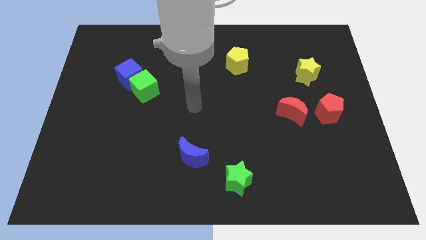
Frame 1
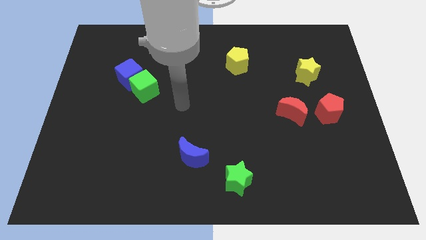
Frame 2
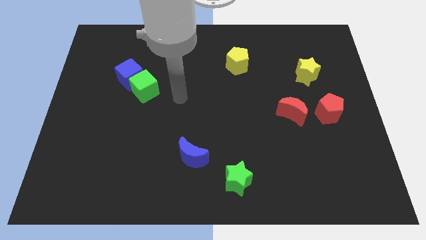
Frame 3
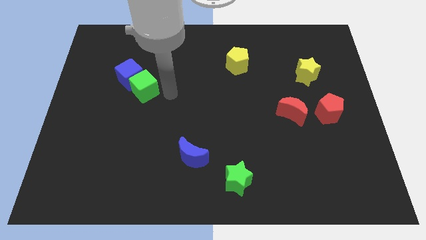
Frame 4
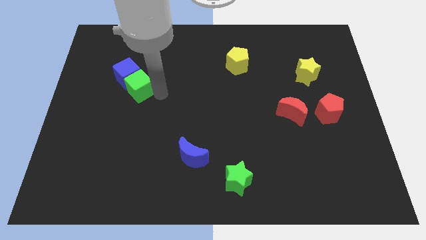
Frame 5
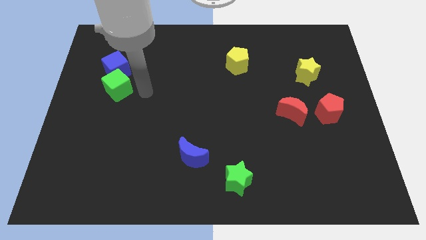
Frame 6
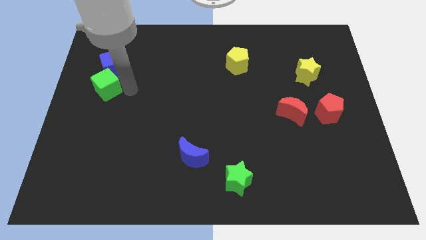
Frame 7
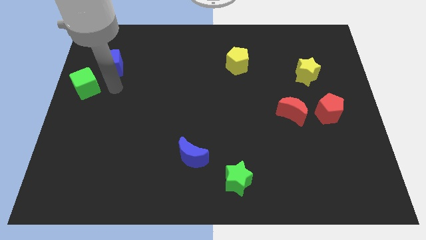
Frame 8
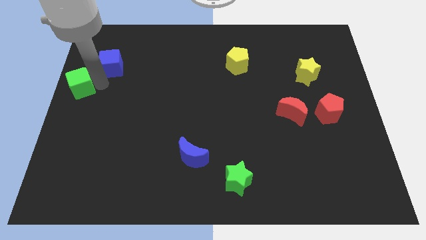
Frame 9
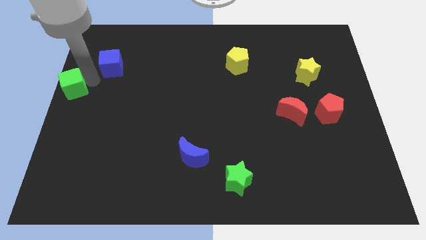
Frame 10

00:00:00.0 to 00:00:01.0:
move the blue cube away from the green cube

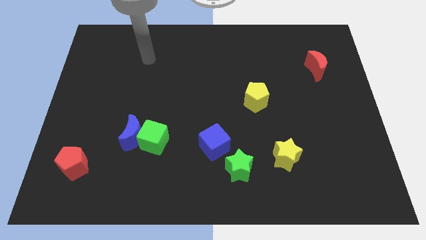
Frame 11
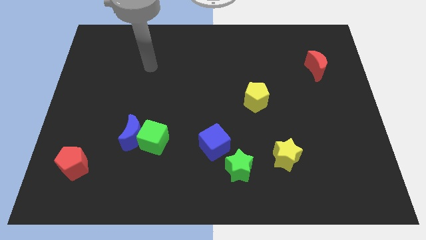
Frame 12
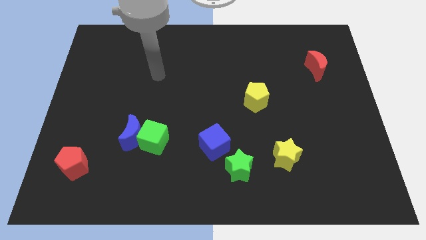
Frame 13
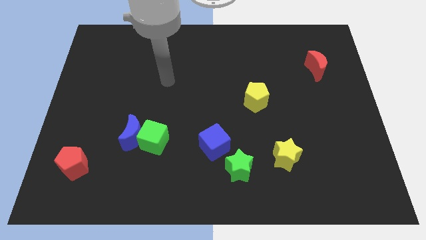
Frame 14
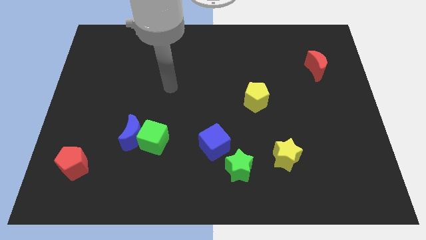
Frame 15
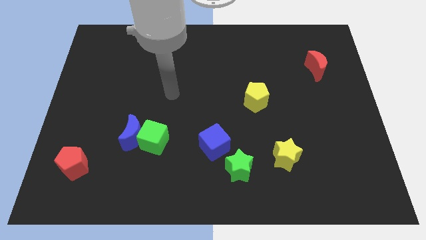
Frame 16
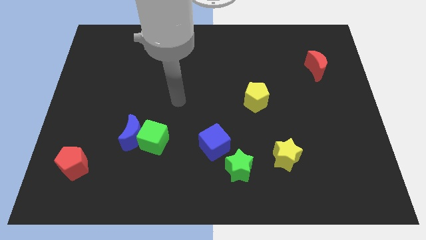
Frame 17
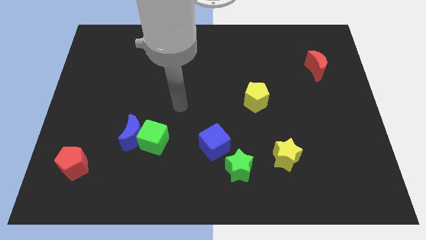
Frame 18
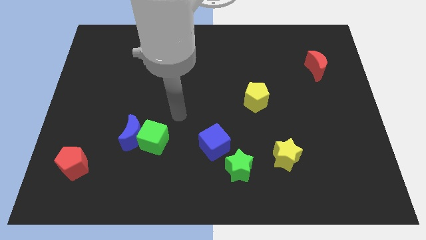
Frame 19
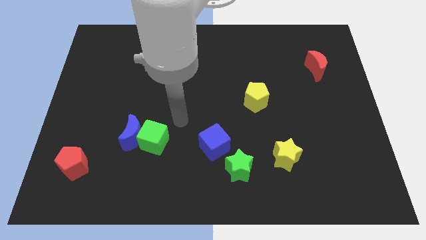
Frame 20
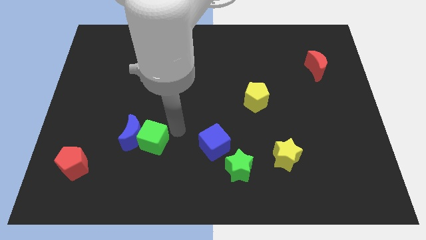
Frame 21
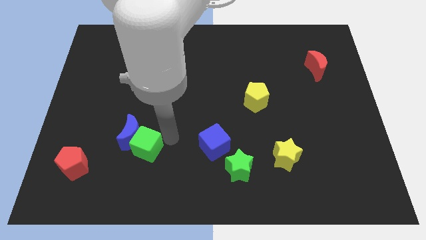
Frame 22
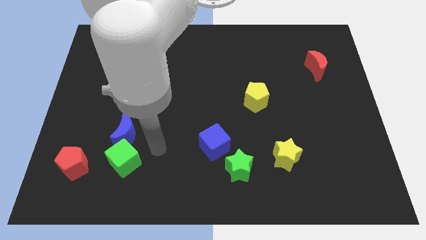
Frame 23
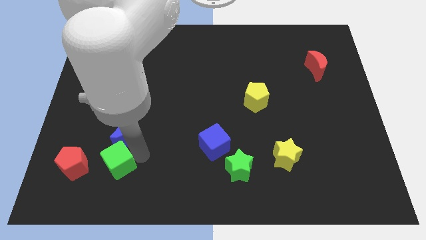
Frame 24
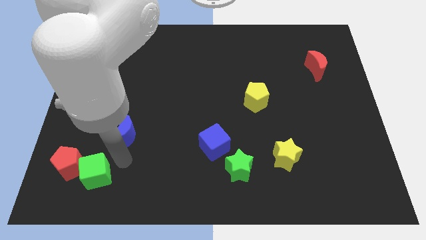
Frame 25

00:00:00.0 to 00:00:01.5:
move the blue moon away from the green cube

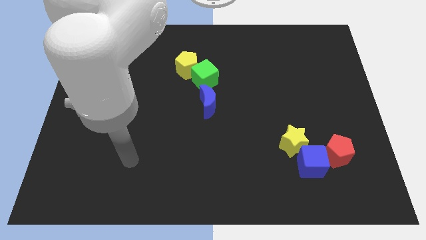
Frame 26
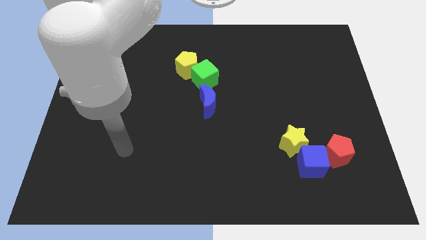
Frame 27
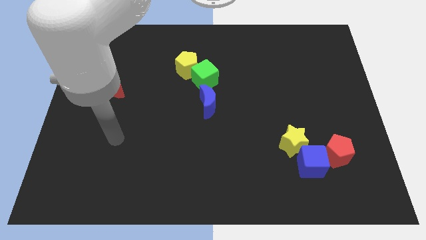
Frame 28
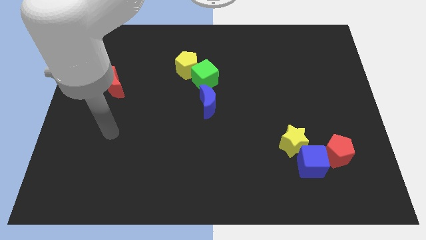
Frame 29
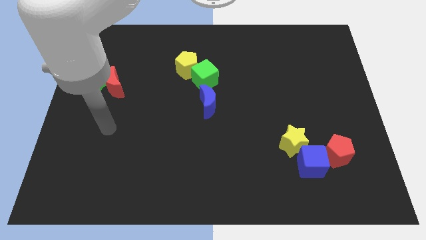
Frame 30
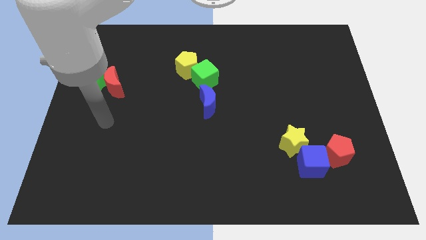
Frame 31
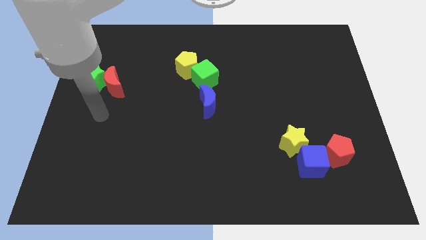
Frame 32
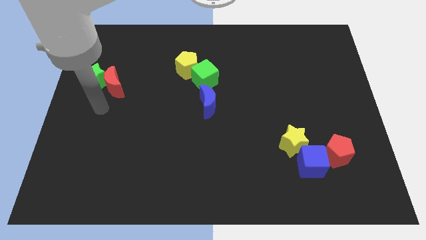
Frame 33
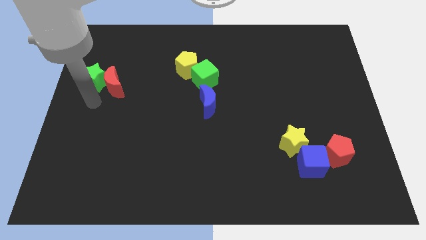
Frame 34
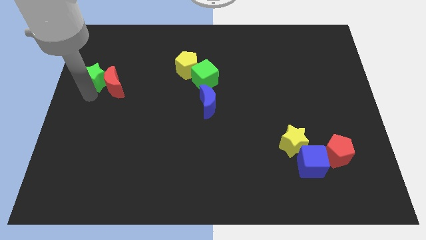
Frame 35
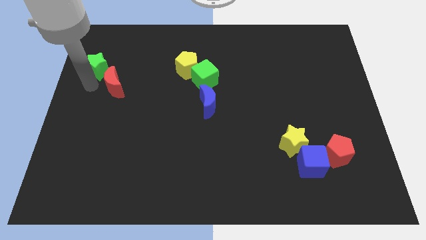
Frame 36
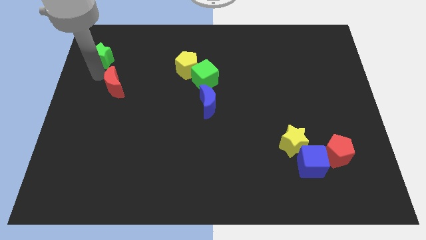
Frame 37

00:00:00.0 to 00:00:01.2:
move the red moon away from the green star

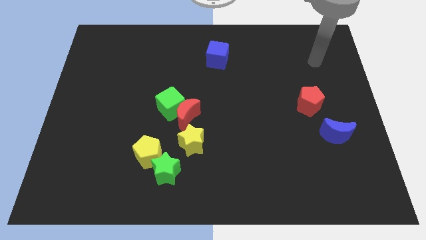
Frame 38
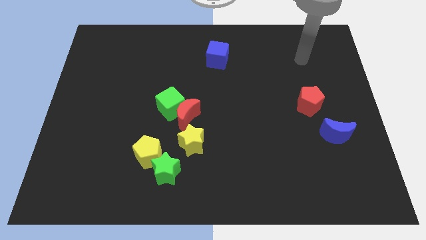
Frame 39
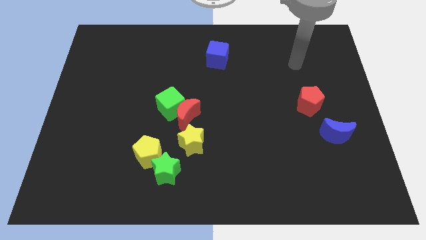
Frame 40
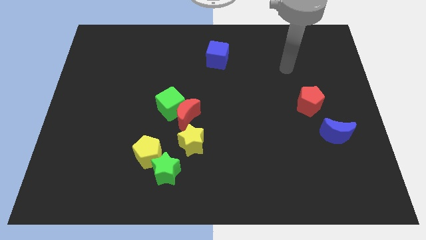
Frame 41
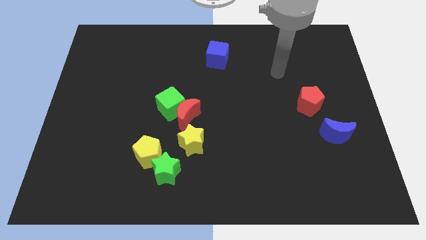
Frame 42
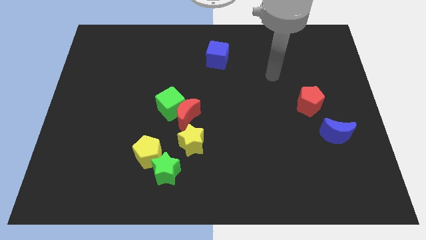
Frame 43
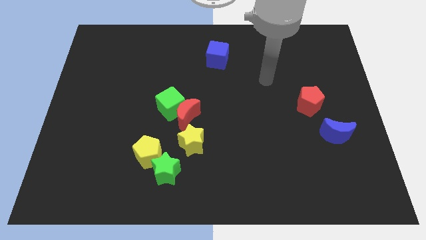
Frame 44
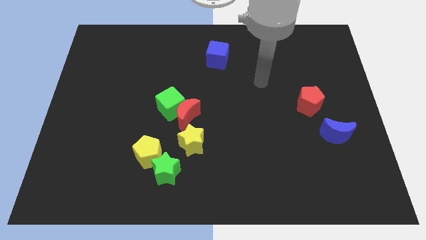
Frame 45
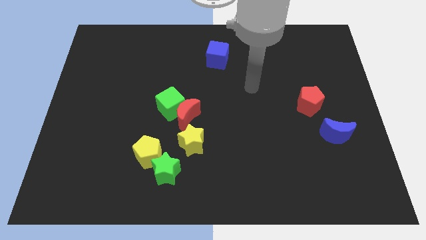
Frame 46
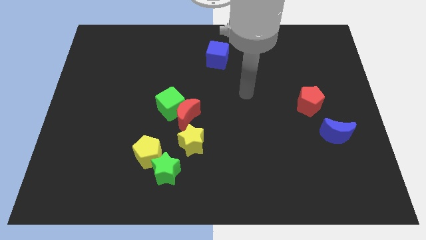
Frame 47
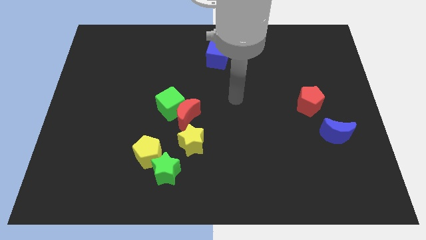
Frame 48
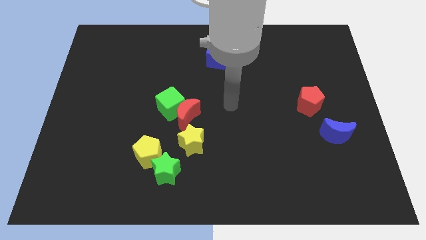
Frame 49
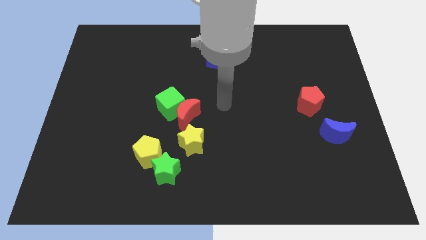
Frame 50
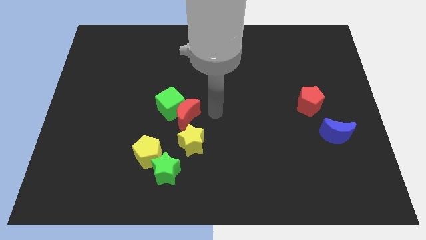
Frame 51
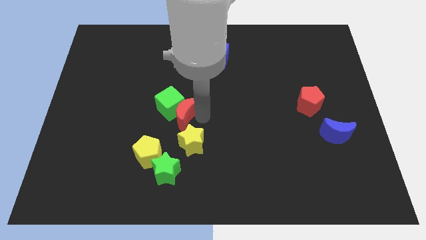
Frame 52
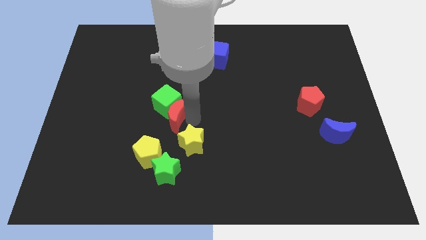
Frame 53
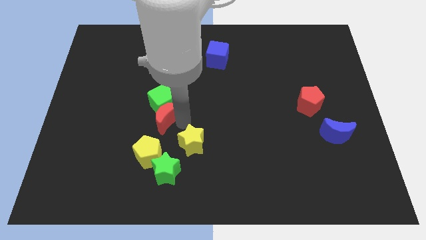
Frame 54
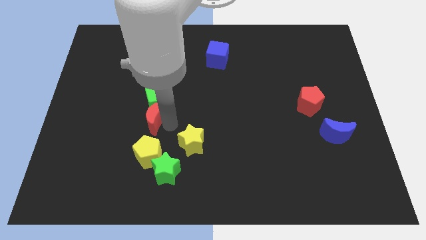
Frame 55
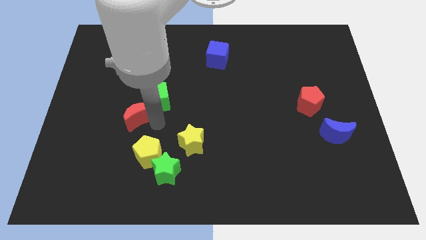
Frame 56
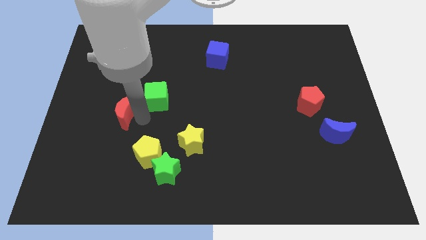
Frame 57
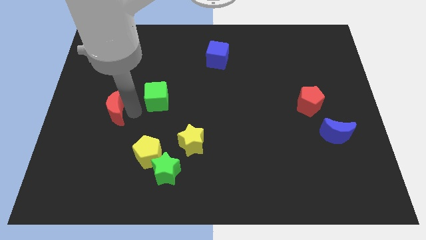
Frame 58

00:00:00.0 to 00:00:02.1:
move the green cube away from the red moon

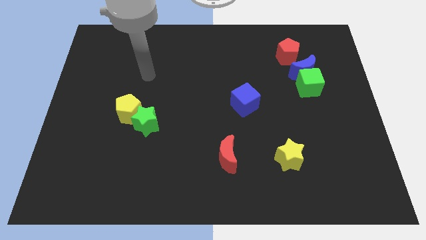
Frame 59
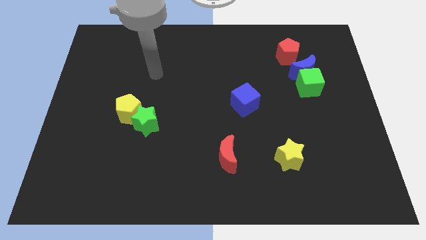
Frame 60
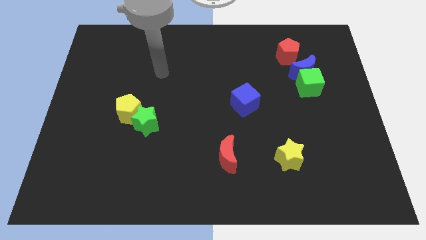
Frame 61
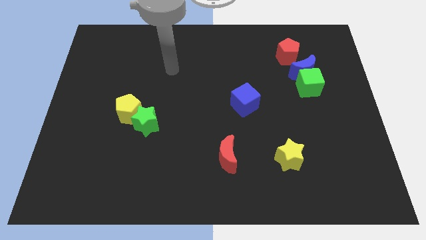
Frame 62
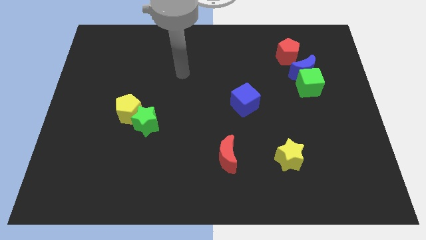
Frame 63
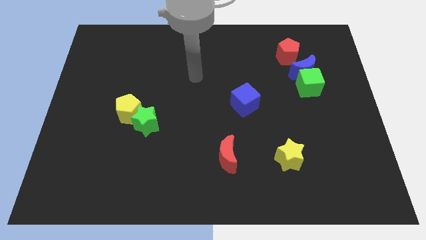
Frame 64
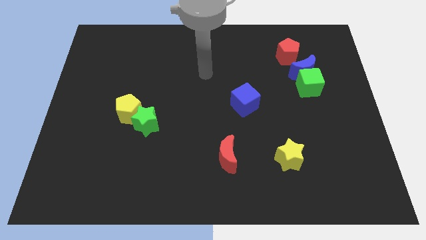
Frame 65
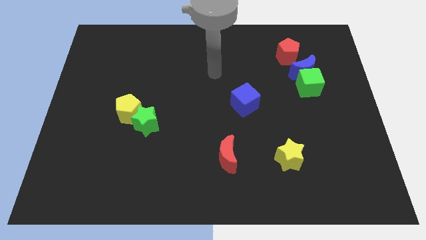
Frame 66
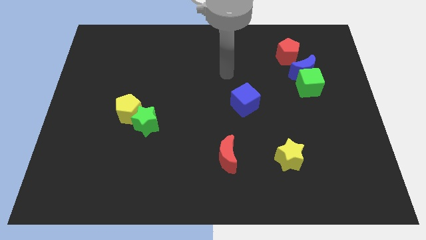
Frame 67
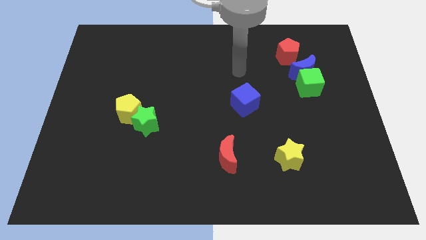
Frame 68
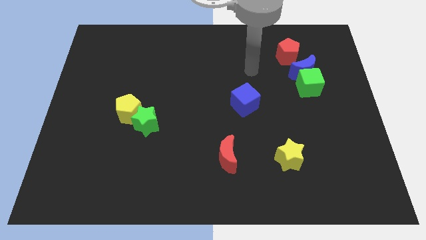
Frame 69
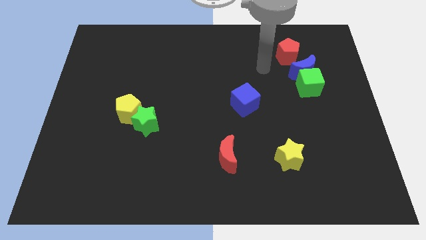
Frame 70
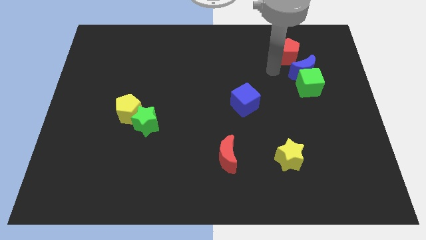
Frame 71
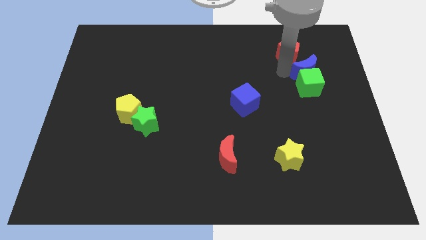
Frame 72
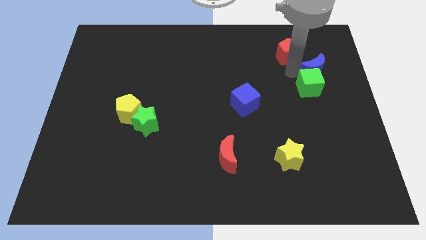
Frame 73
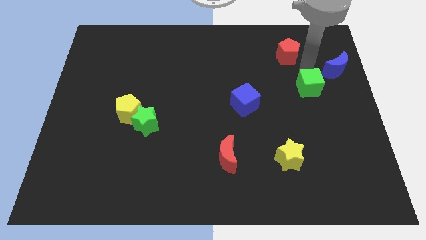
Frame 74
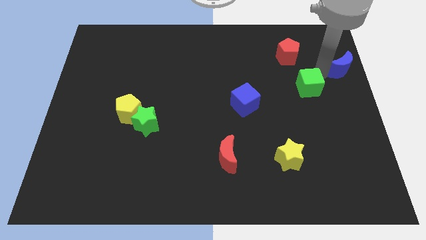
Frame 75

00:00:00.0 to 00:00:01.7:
separate the green cube from the blue moon

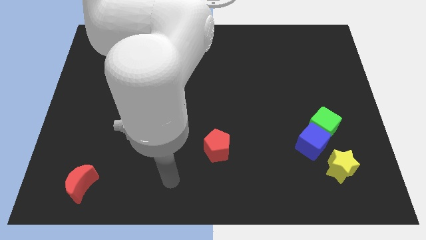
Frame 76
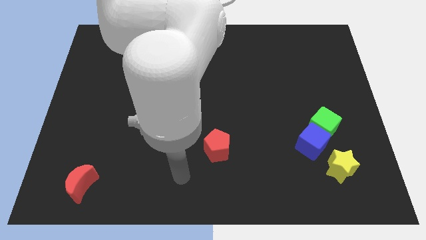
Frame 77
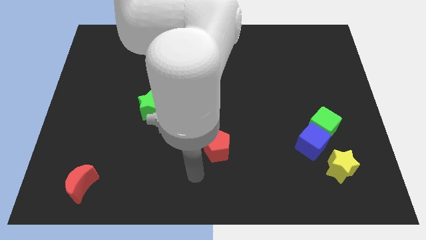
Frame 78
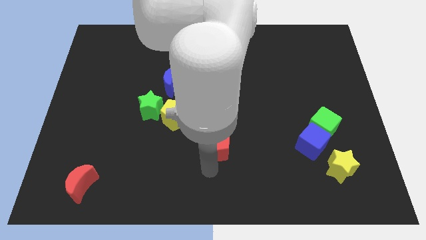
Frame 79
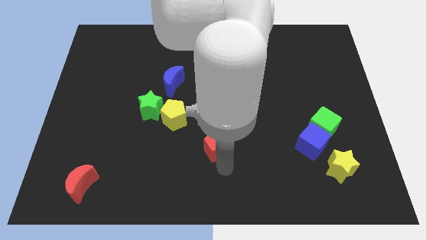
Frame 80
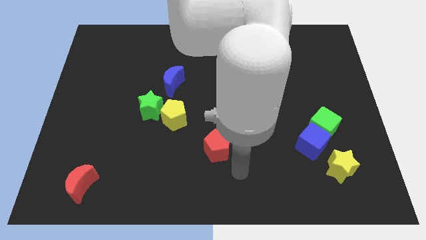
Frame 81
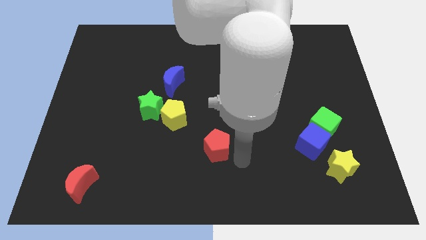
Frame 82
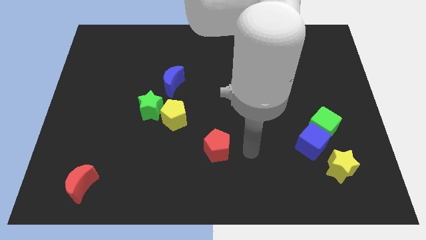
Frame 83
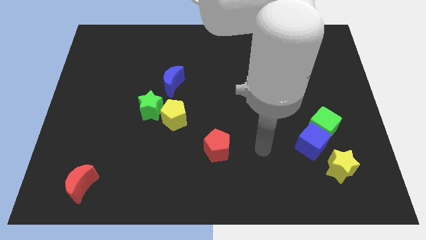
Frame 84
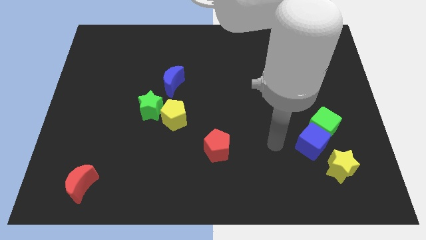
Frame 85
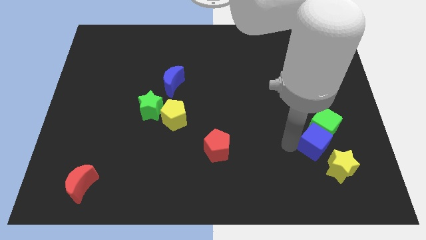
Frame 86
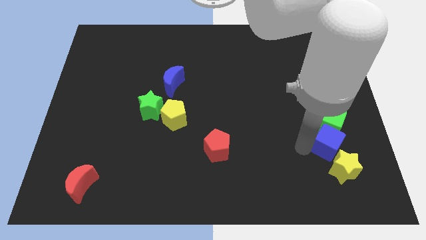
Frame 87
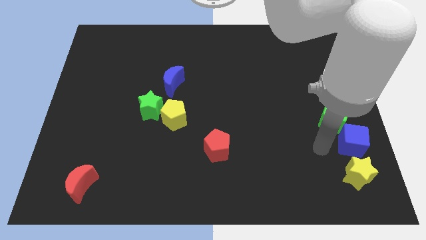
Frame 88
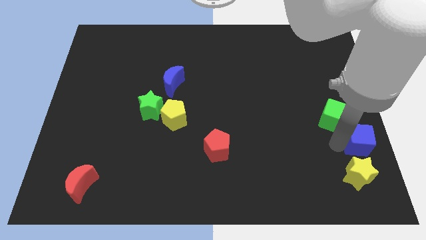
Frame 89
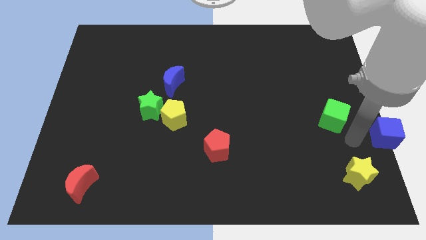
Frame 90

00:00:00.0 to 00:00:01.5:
move the green cube away from the blue cube

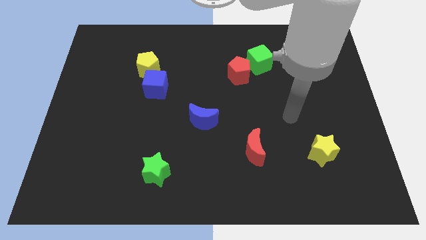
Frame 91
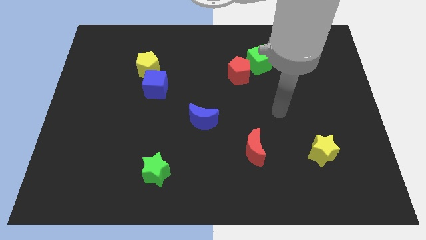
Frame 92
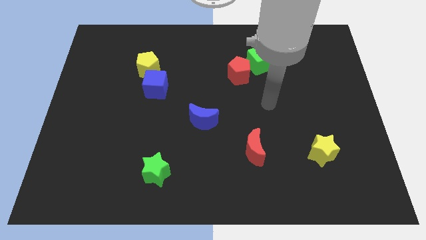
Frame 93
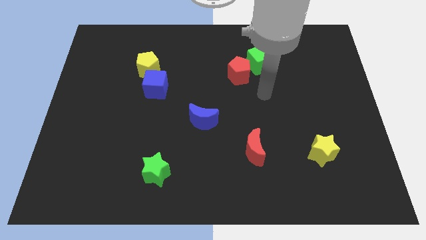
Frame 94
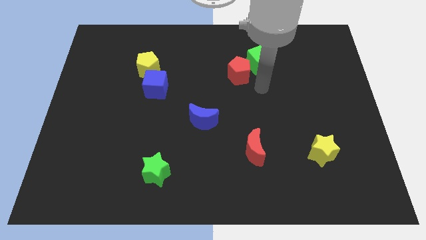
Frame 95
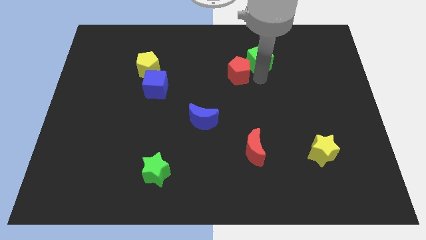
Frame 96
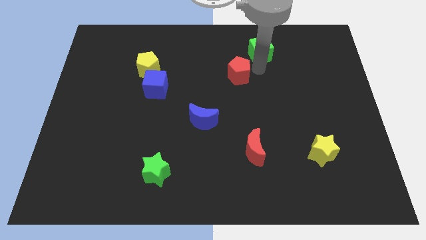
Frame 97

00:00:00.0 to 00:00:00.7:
separate the red pentagon from the green cube
